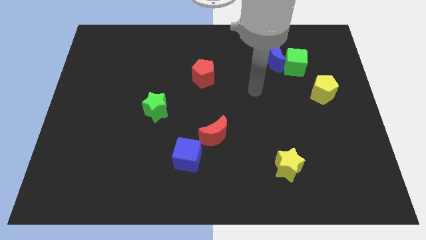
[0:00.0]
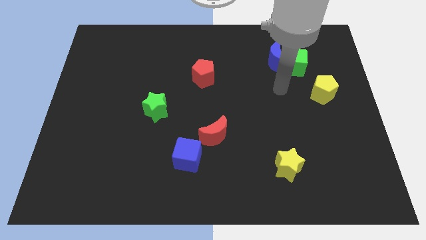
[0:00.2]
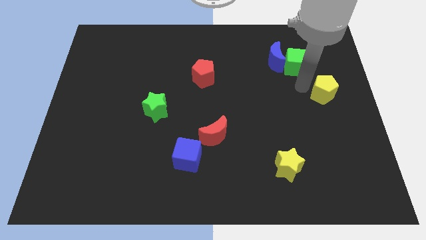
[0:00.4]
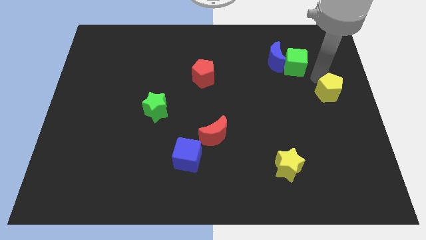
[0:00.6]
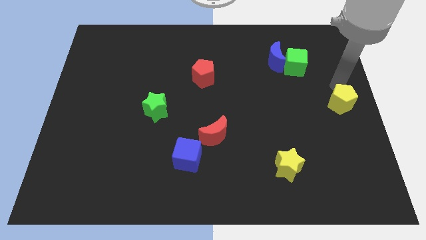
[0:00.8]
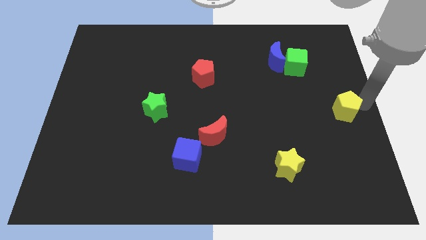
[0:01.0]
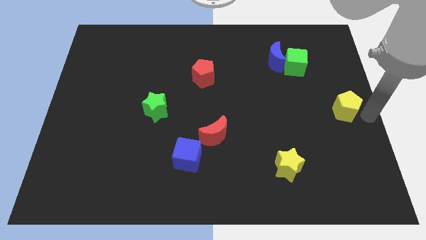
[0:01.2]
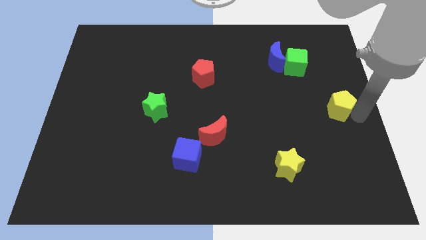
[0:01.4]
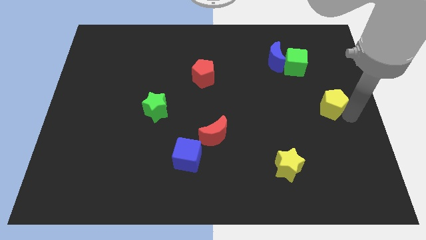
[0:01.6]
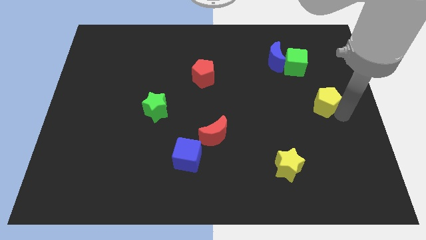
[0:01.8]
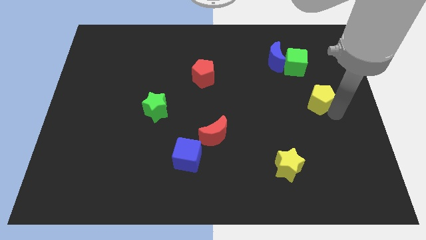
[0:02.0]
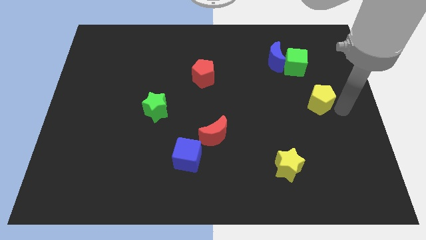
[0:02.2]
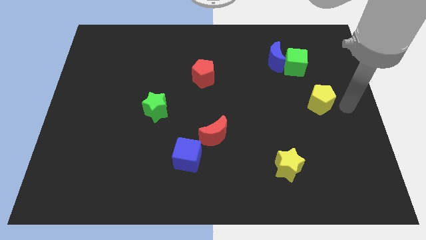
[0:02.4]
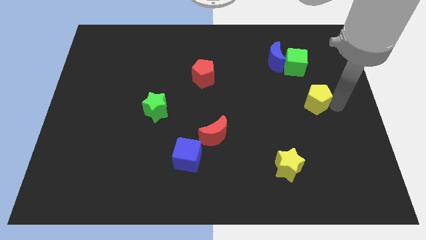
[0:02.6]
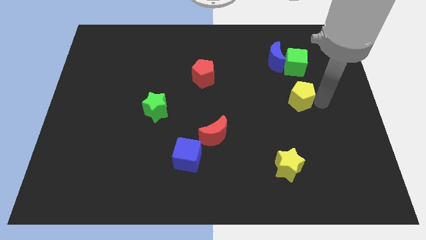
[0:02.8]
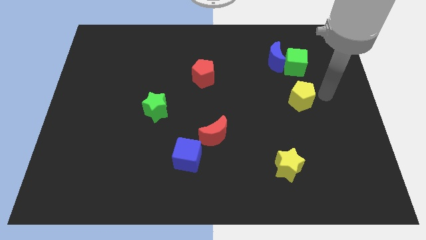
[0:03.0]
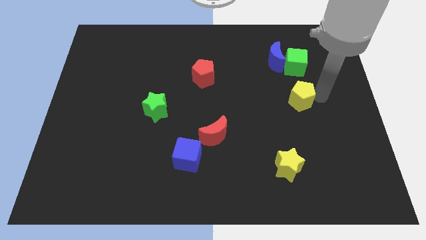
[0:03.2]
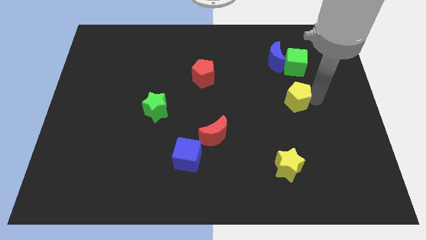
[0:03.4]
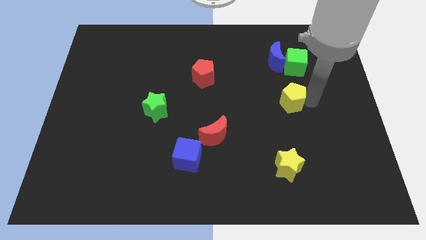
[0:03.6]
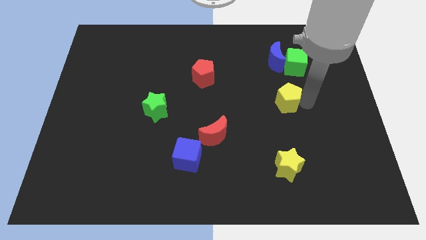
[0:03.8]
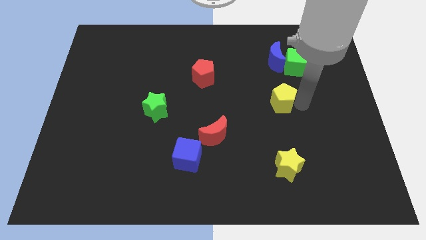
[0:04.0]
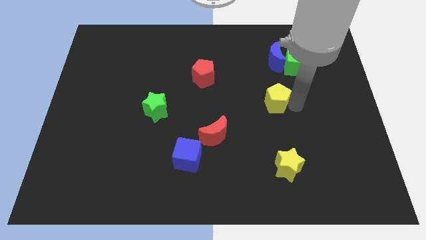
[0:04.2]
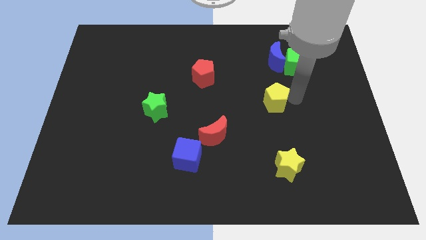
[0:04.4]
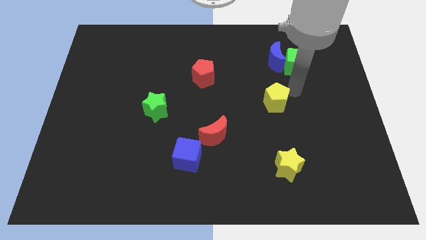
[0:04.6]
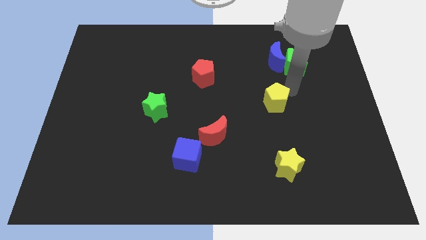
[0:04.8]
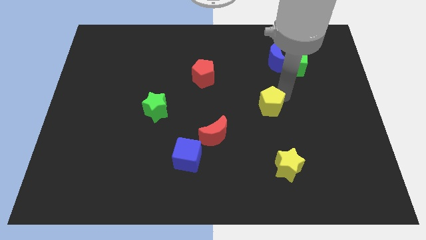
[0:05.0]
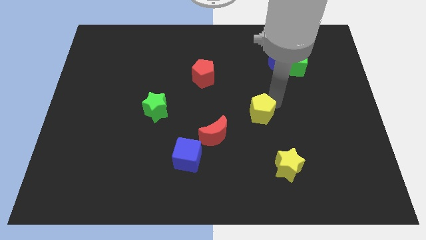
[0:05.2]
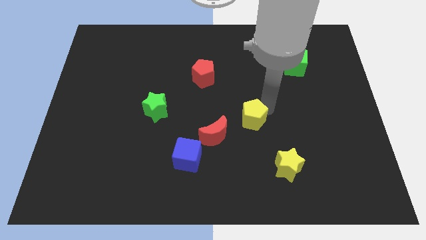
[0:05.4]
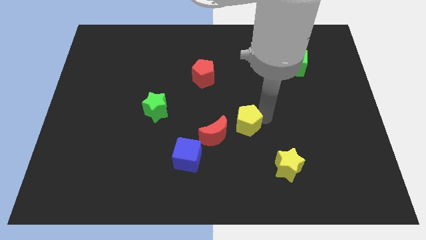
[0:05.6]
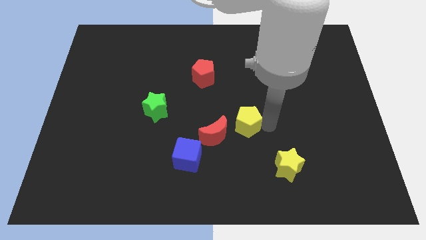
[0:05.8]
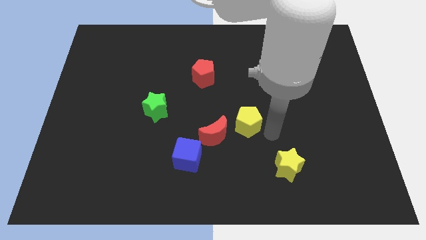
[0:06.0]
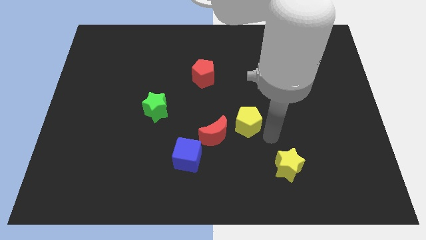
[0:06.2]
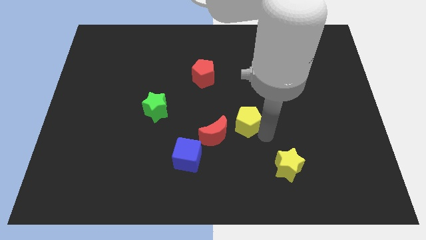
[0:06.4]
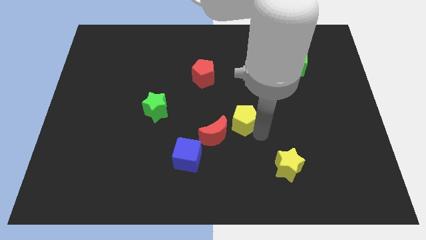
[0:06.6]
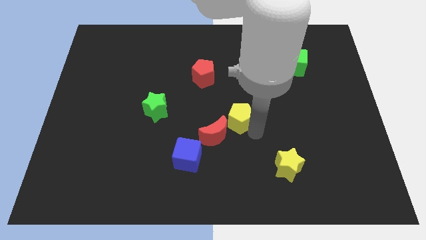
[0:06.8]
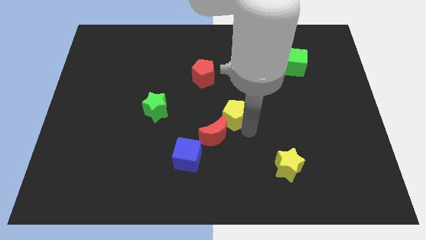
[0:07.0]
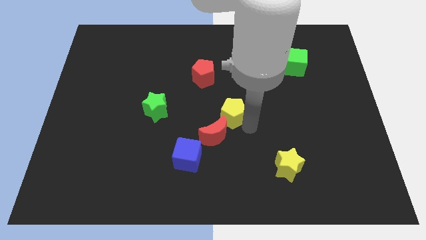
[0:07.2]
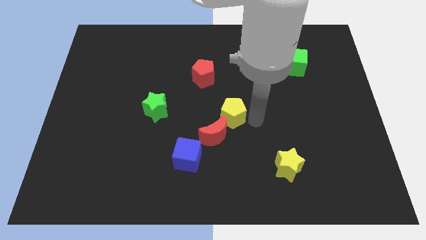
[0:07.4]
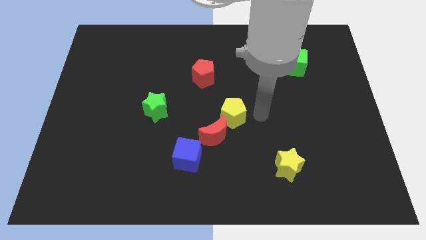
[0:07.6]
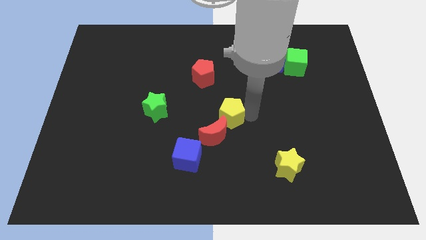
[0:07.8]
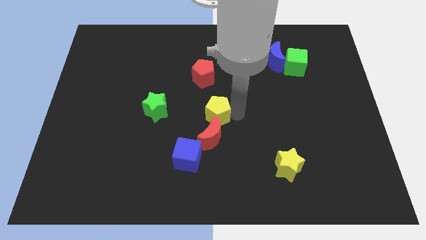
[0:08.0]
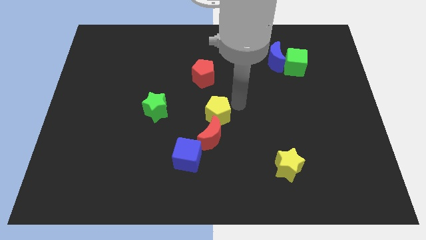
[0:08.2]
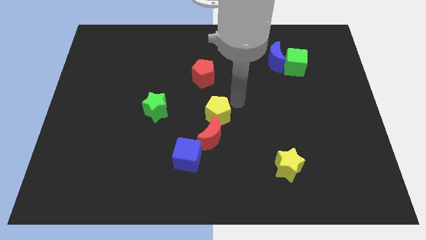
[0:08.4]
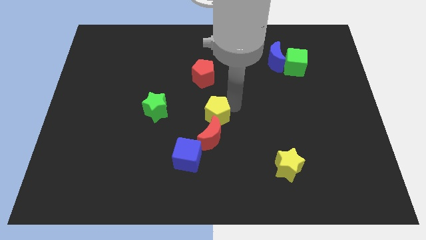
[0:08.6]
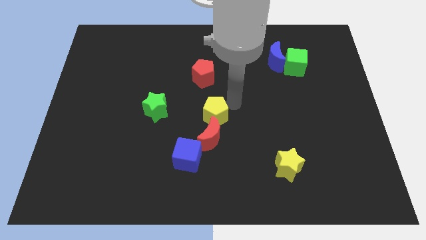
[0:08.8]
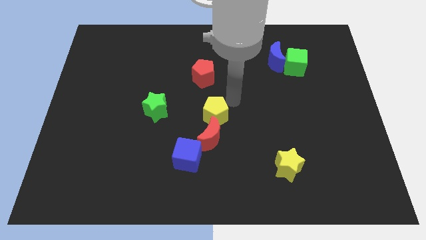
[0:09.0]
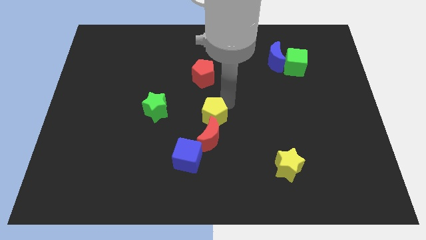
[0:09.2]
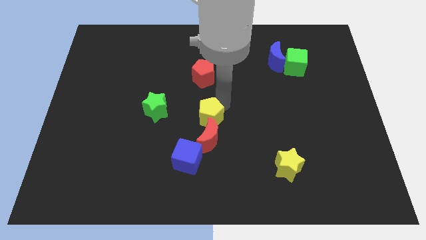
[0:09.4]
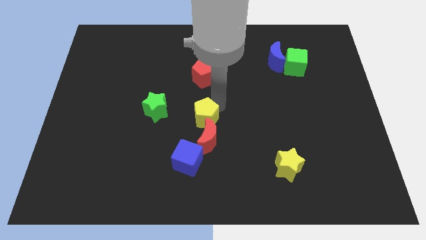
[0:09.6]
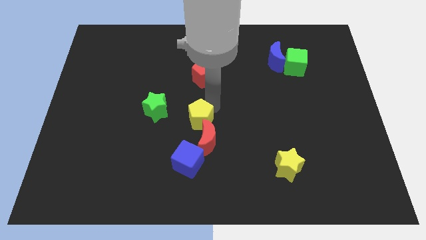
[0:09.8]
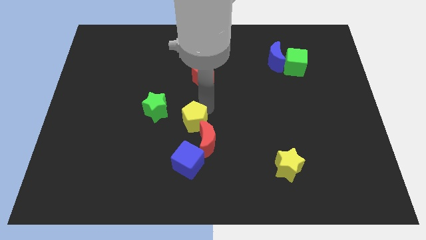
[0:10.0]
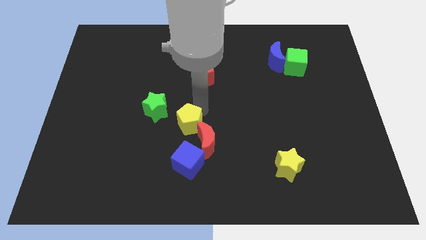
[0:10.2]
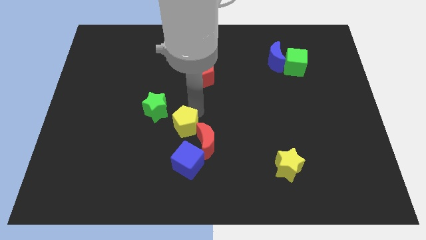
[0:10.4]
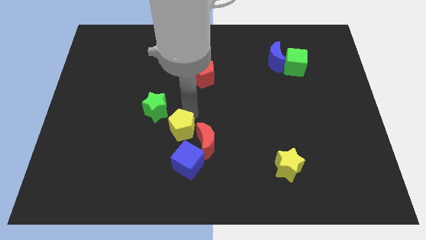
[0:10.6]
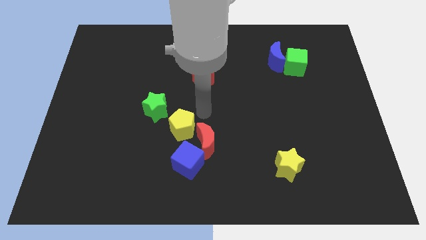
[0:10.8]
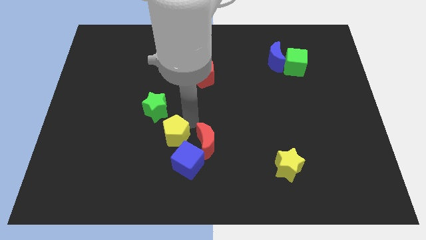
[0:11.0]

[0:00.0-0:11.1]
push the yellow pentagon to the bottom side of the green star

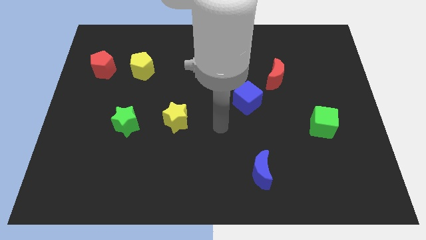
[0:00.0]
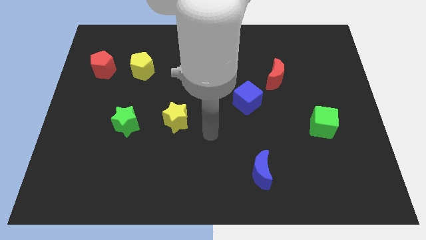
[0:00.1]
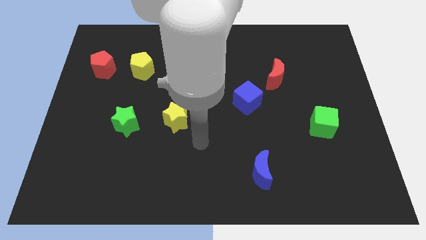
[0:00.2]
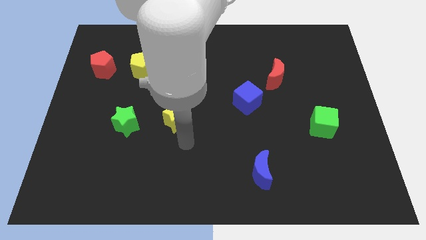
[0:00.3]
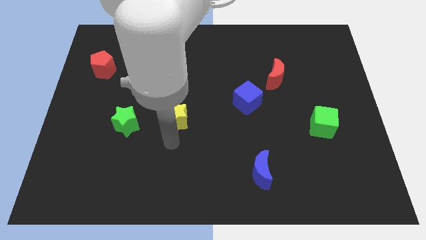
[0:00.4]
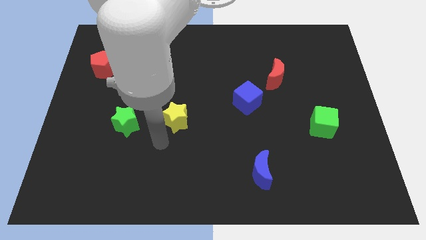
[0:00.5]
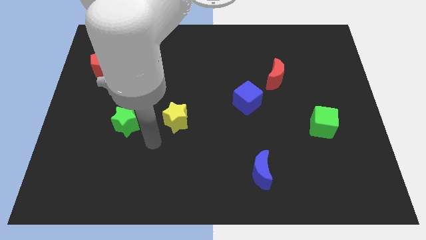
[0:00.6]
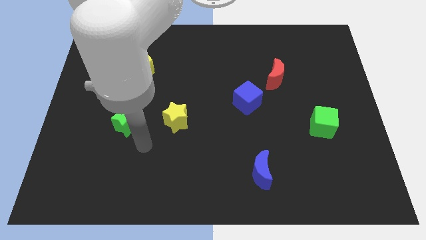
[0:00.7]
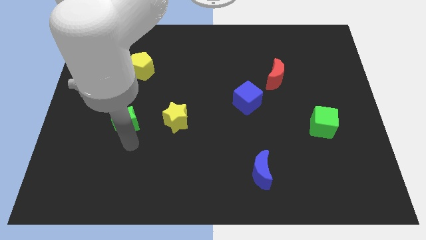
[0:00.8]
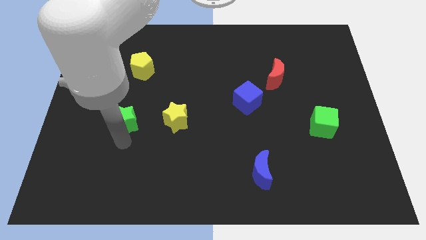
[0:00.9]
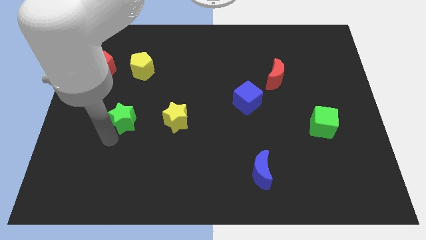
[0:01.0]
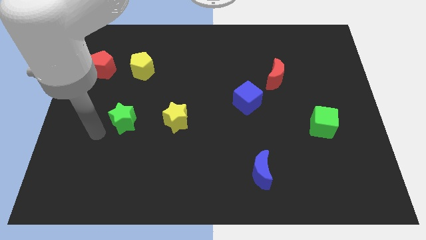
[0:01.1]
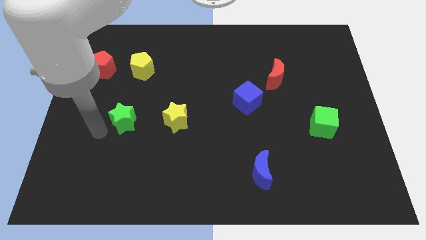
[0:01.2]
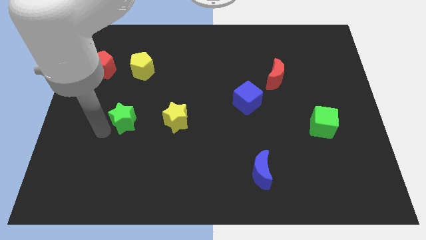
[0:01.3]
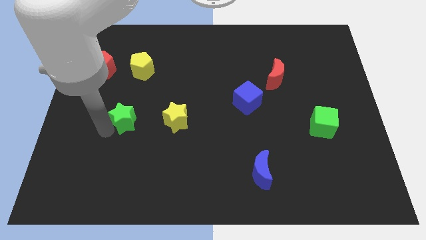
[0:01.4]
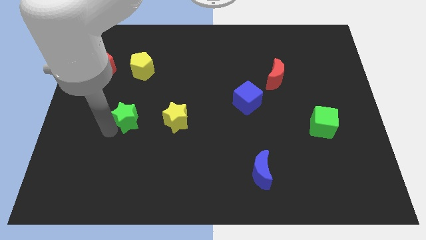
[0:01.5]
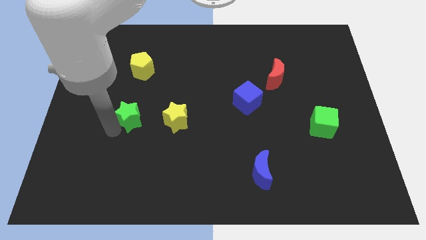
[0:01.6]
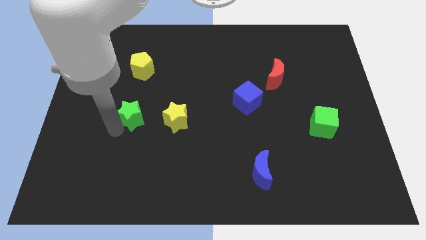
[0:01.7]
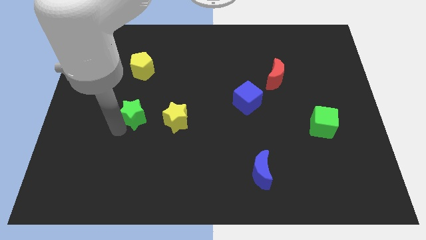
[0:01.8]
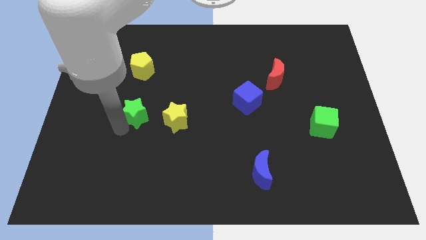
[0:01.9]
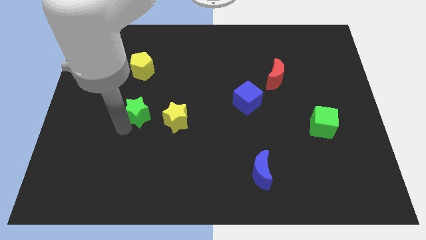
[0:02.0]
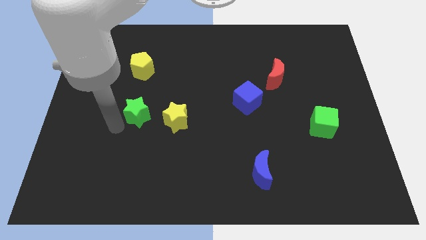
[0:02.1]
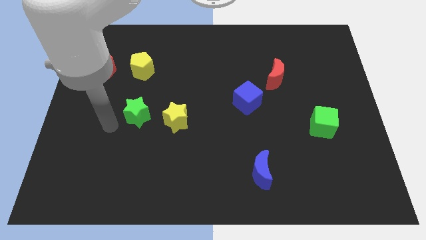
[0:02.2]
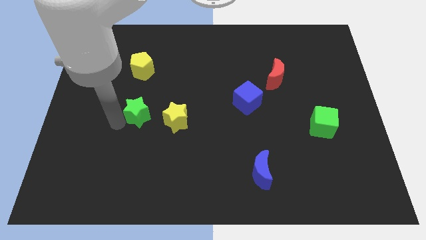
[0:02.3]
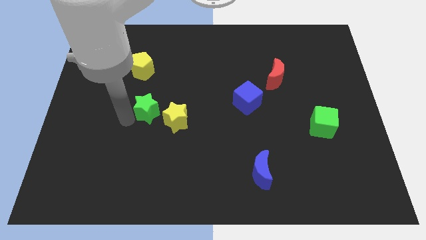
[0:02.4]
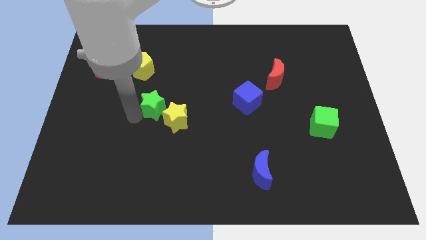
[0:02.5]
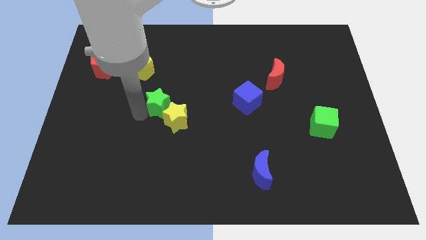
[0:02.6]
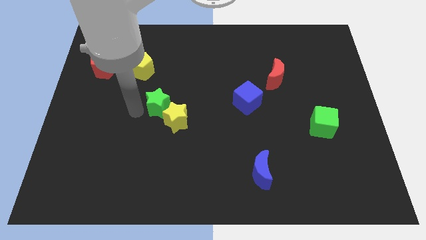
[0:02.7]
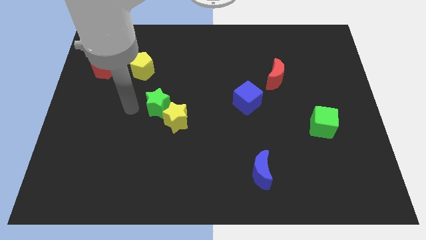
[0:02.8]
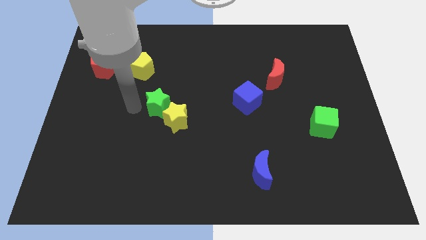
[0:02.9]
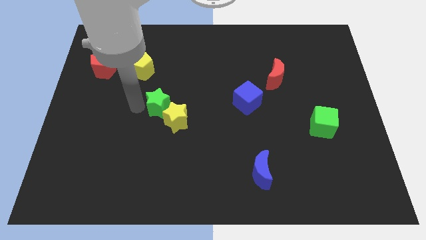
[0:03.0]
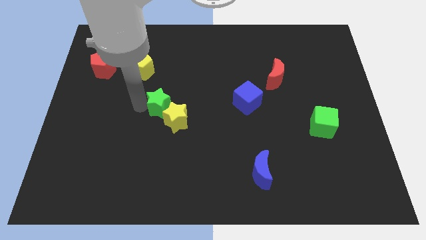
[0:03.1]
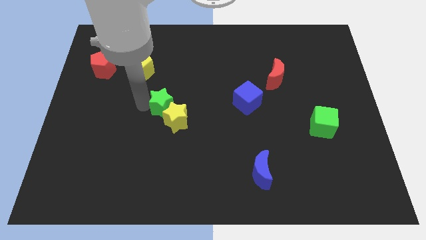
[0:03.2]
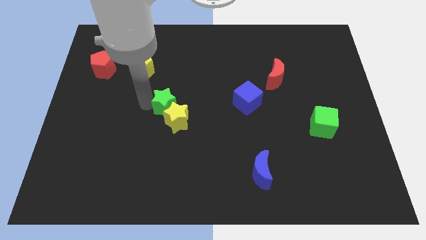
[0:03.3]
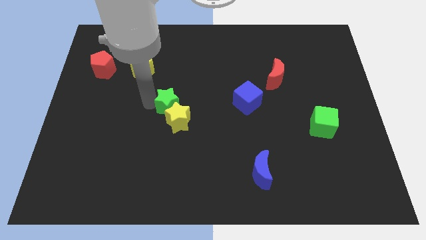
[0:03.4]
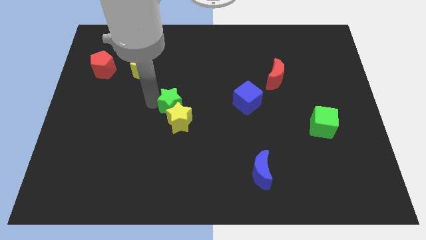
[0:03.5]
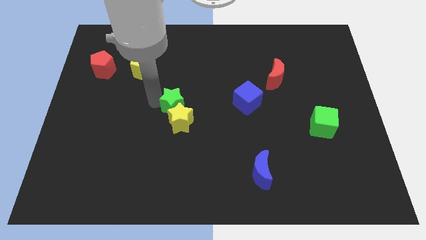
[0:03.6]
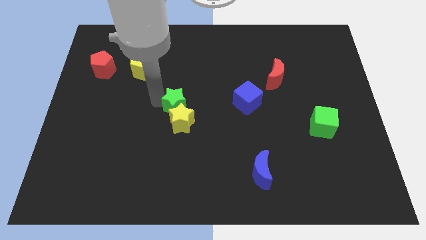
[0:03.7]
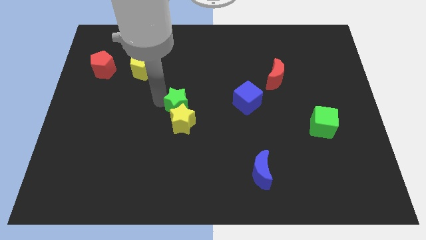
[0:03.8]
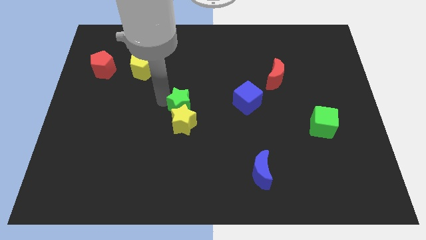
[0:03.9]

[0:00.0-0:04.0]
move the green star to the left of the blue cube
